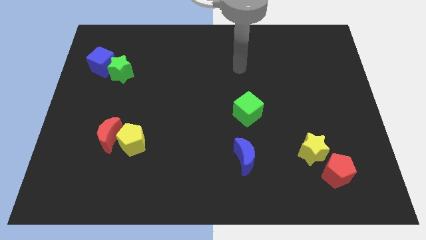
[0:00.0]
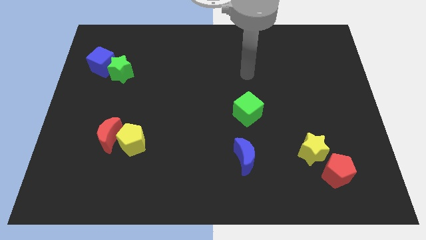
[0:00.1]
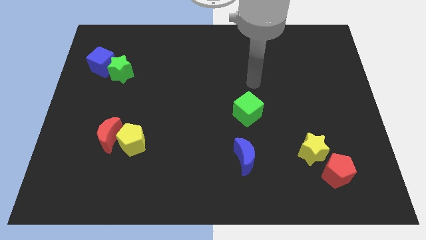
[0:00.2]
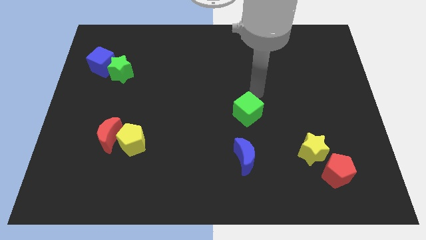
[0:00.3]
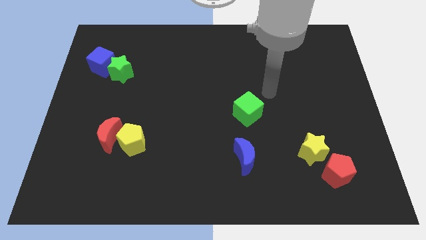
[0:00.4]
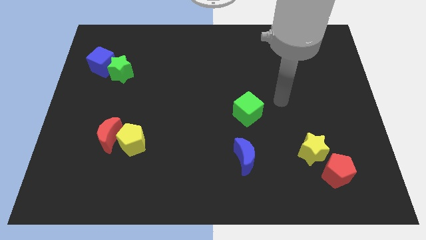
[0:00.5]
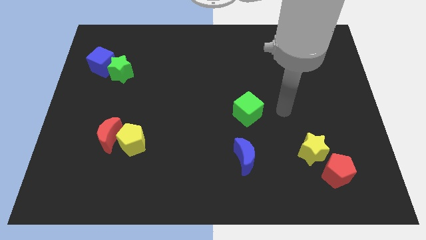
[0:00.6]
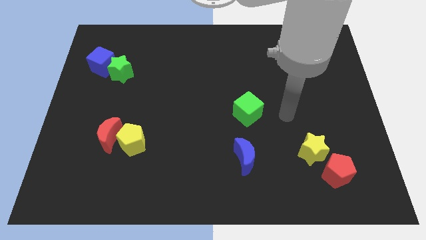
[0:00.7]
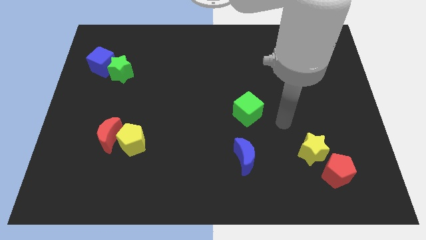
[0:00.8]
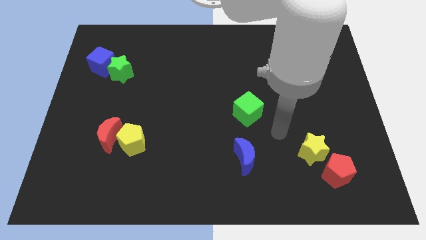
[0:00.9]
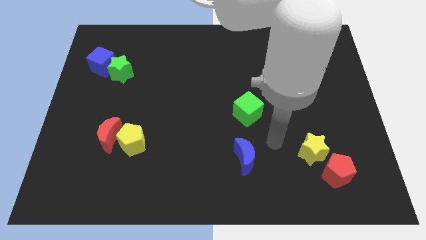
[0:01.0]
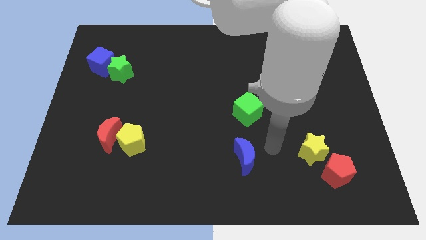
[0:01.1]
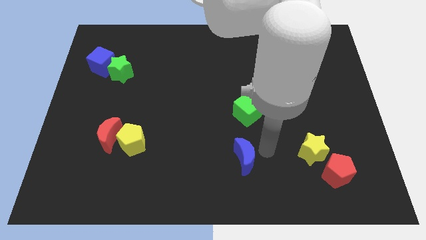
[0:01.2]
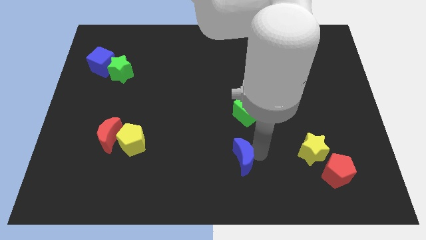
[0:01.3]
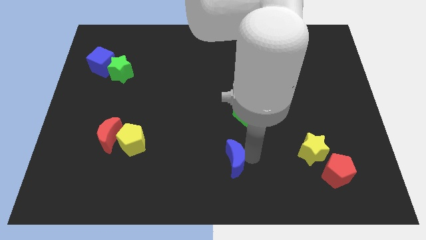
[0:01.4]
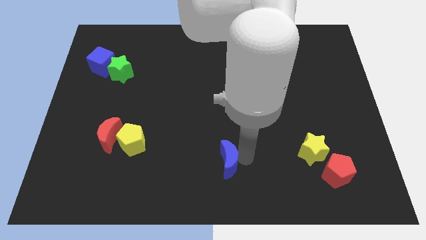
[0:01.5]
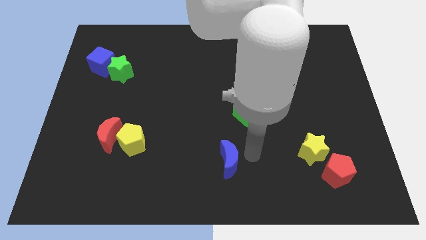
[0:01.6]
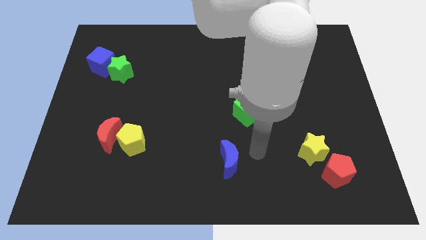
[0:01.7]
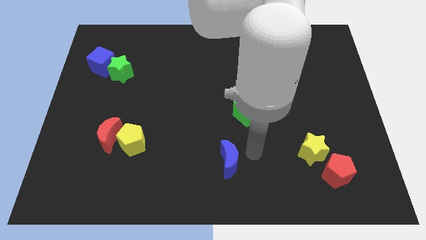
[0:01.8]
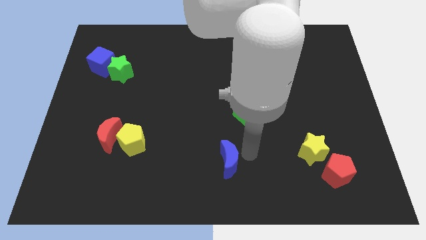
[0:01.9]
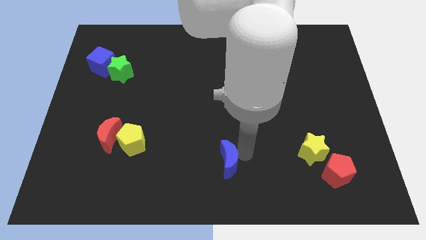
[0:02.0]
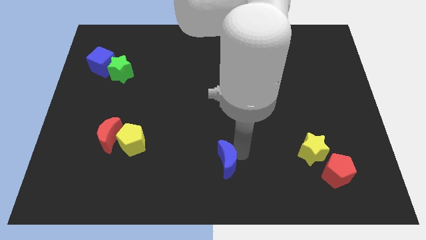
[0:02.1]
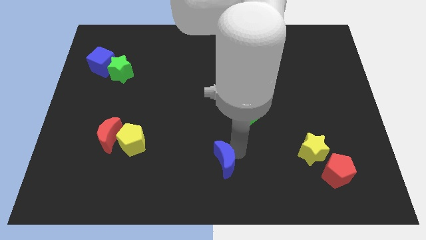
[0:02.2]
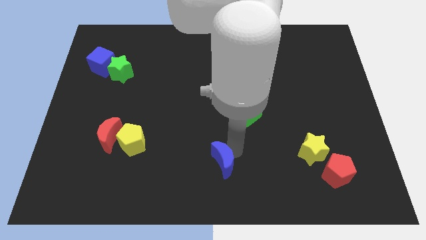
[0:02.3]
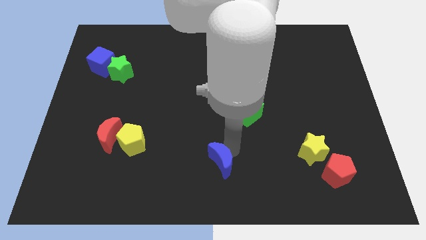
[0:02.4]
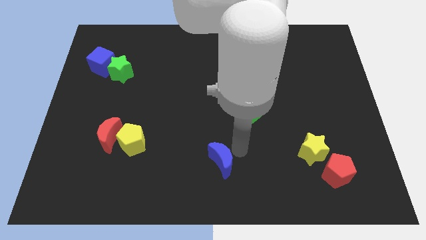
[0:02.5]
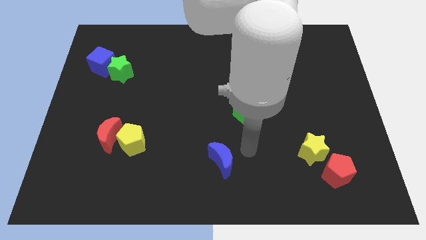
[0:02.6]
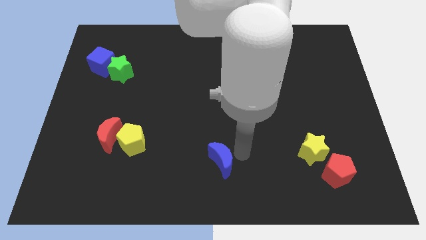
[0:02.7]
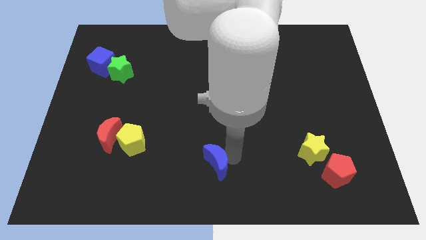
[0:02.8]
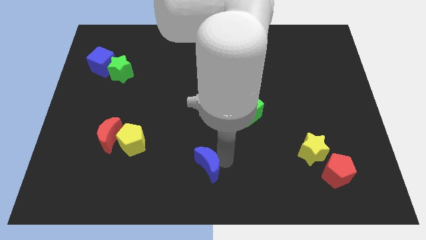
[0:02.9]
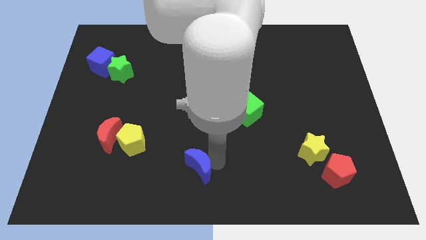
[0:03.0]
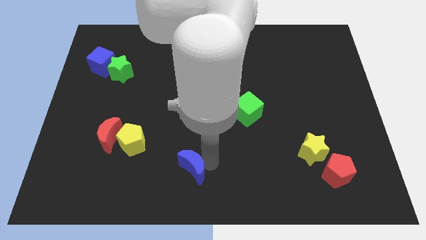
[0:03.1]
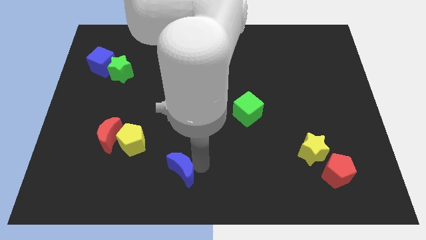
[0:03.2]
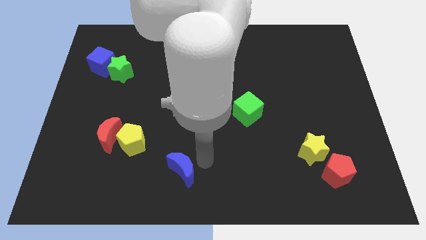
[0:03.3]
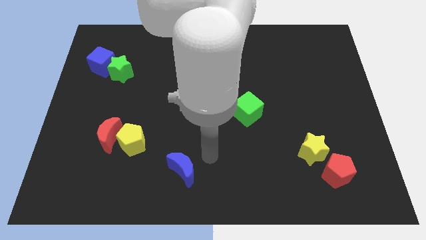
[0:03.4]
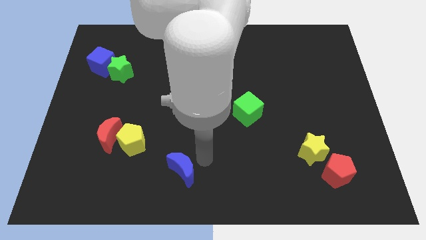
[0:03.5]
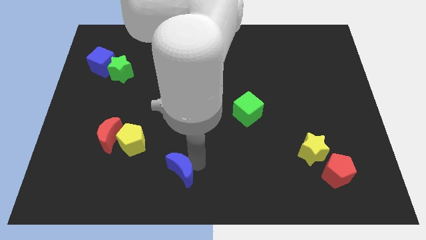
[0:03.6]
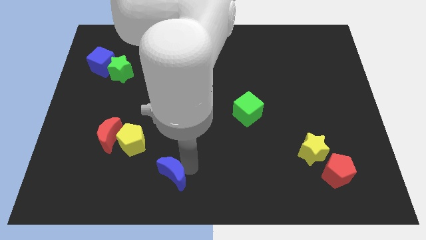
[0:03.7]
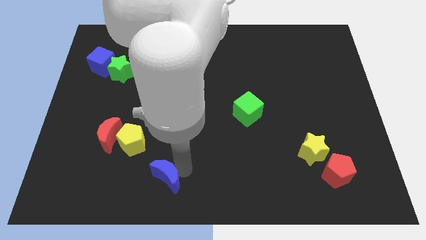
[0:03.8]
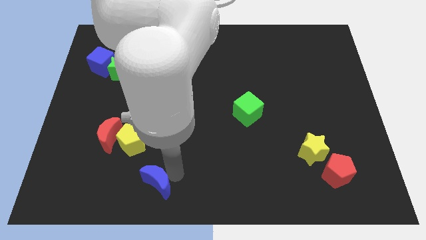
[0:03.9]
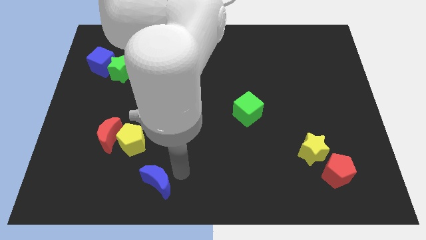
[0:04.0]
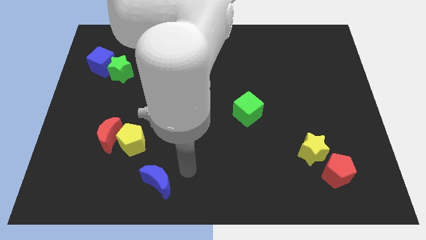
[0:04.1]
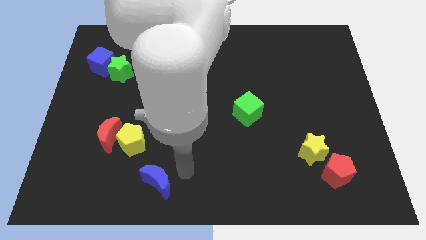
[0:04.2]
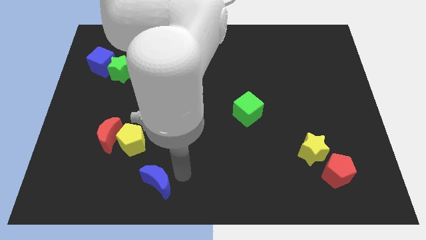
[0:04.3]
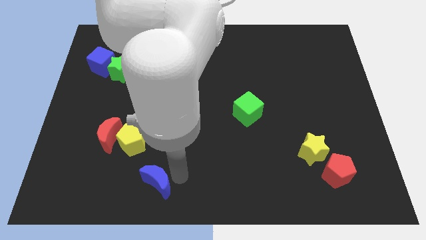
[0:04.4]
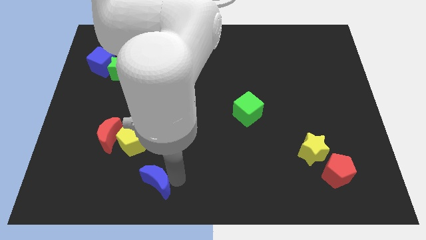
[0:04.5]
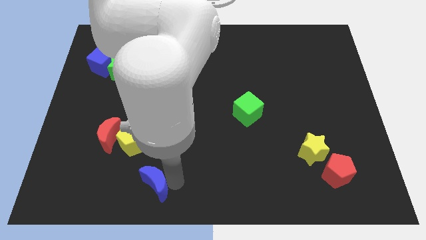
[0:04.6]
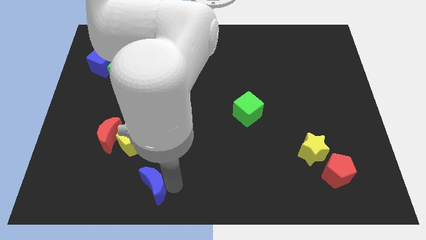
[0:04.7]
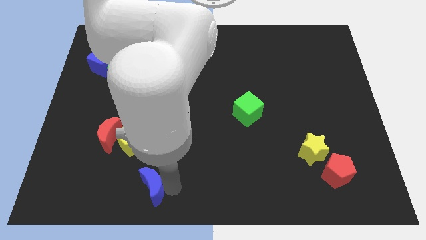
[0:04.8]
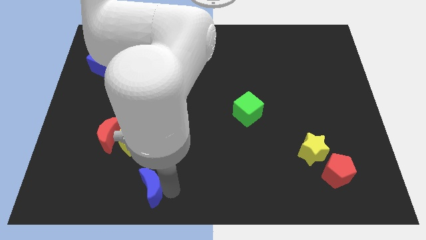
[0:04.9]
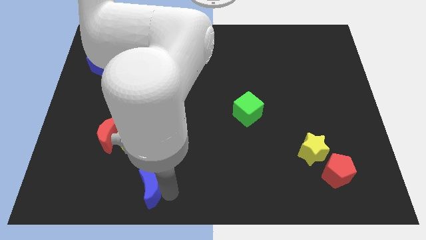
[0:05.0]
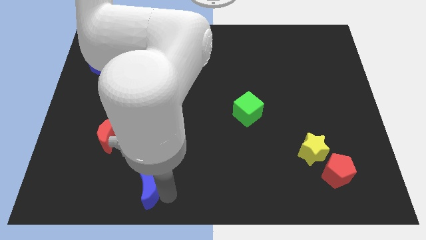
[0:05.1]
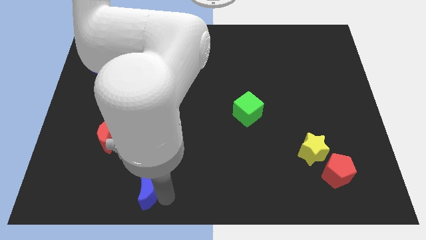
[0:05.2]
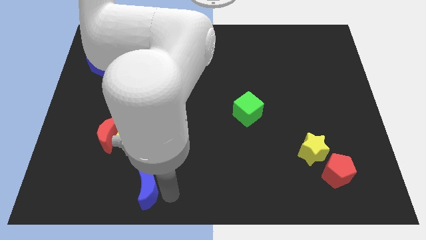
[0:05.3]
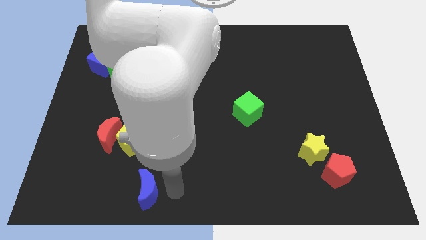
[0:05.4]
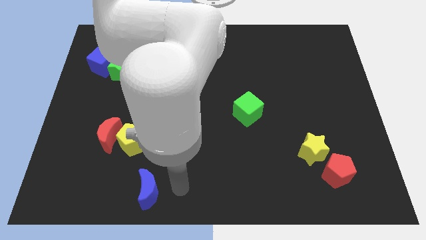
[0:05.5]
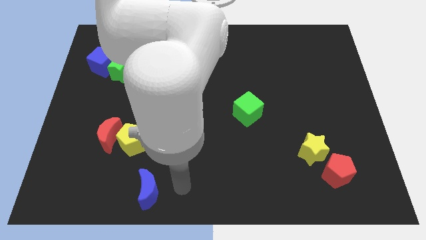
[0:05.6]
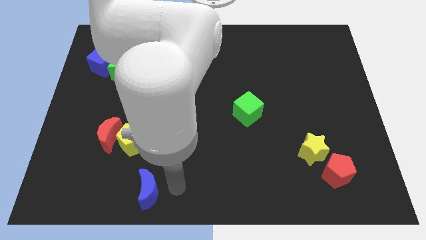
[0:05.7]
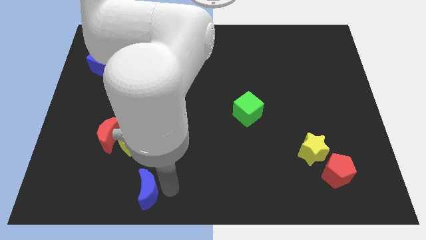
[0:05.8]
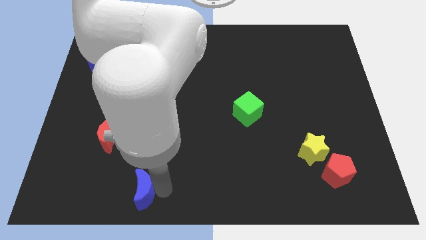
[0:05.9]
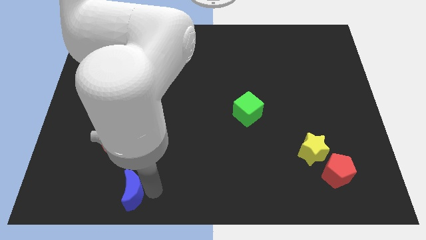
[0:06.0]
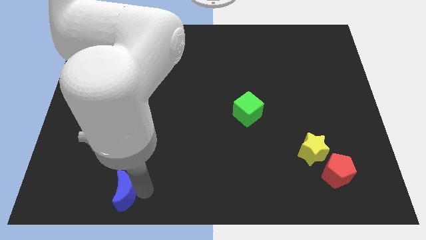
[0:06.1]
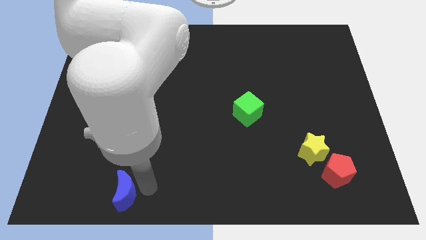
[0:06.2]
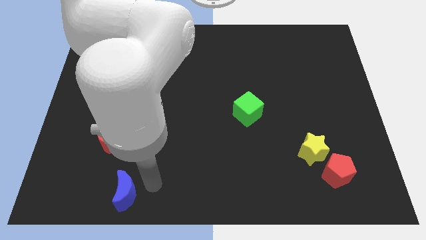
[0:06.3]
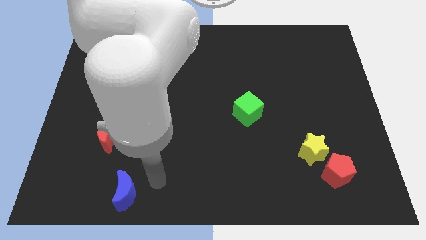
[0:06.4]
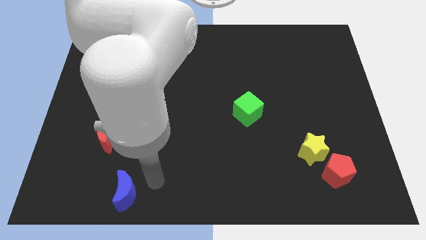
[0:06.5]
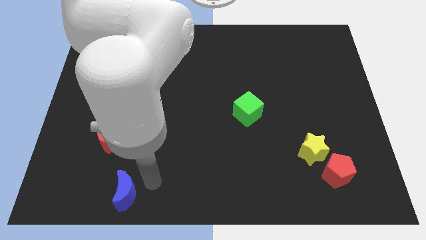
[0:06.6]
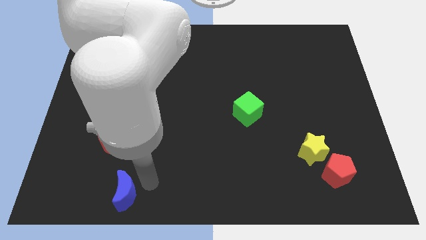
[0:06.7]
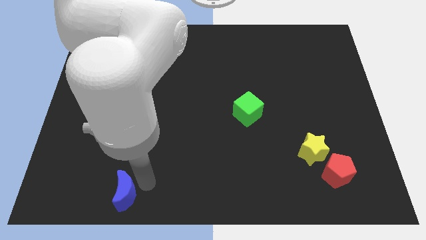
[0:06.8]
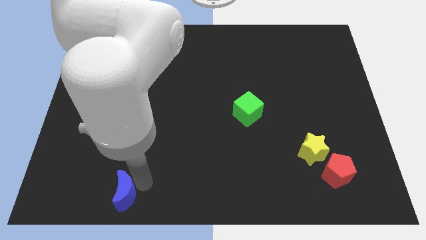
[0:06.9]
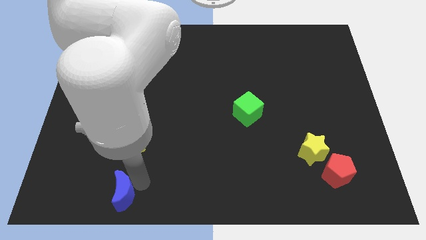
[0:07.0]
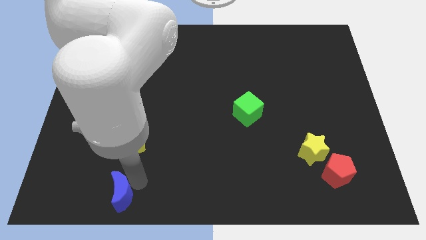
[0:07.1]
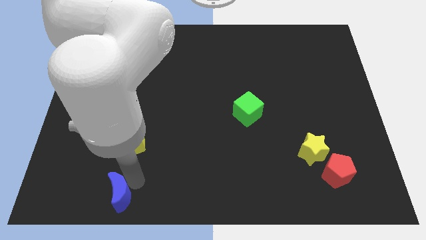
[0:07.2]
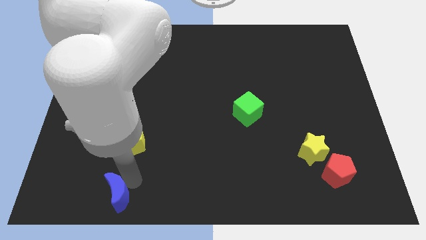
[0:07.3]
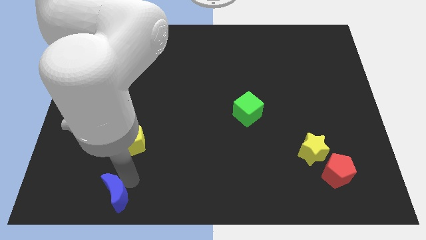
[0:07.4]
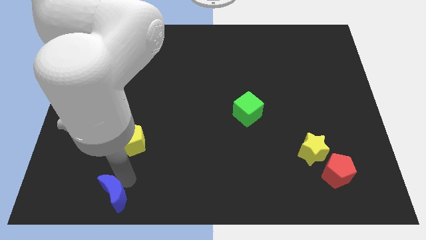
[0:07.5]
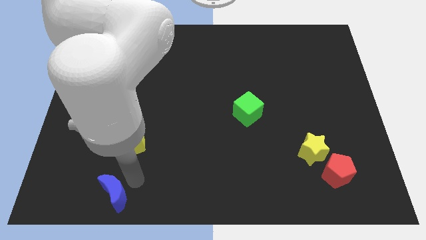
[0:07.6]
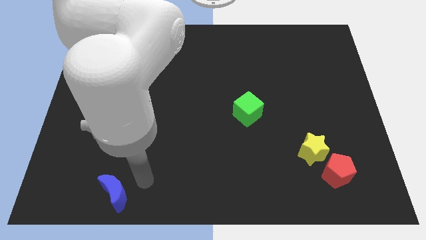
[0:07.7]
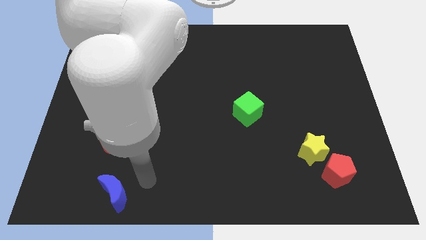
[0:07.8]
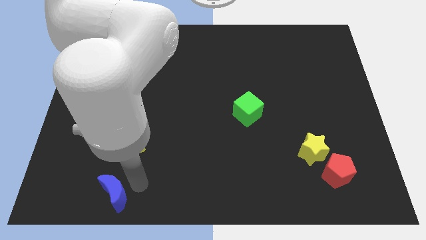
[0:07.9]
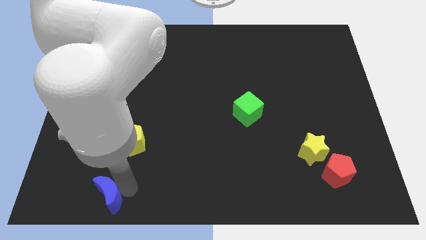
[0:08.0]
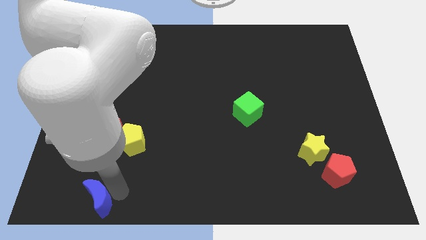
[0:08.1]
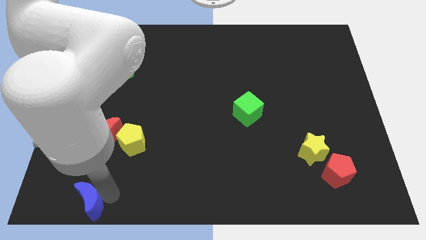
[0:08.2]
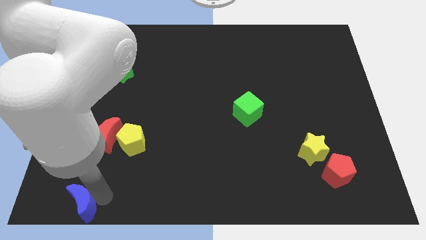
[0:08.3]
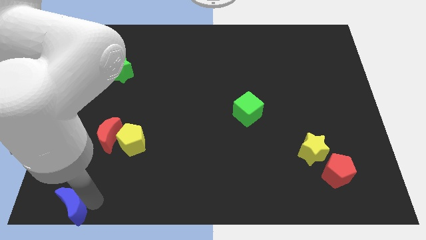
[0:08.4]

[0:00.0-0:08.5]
put the blue moon to the bottom left of the board
